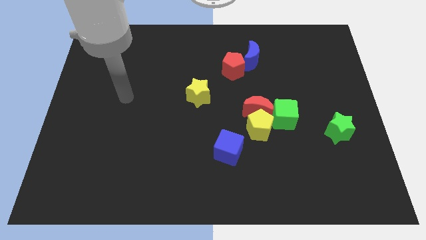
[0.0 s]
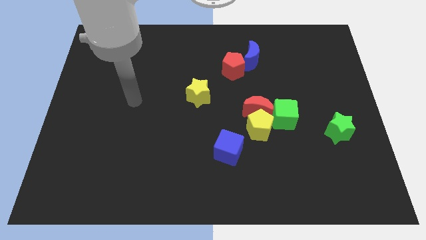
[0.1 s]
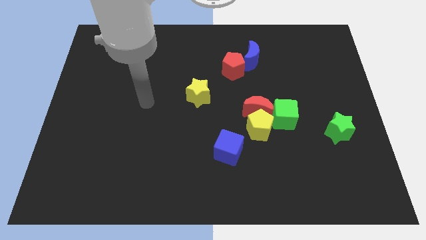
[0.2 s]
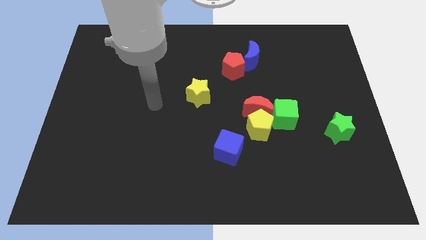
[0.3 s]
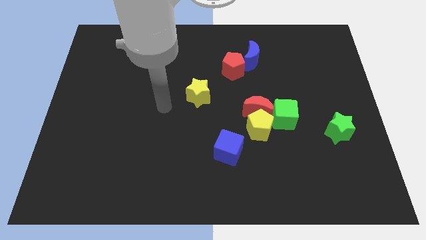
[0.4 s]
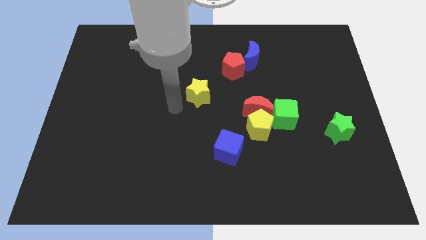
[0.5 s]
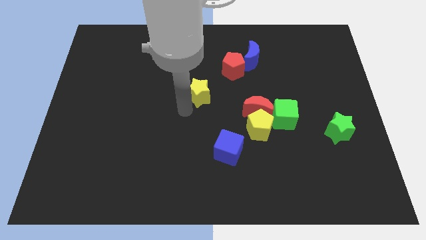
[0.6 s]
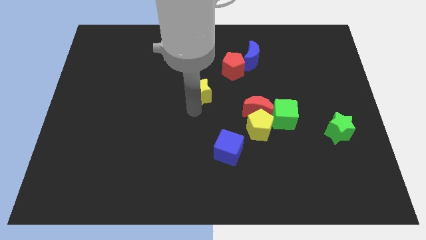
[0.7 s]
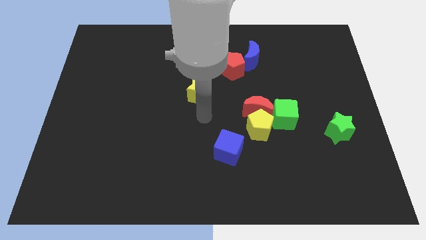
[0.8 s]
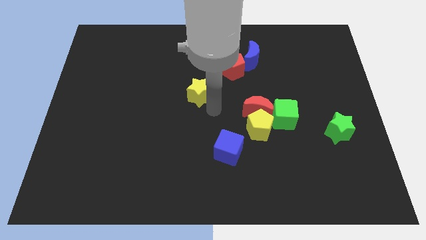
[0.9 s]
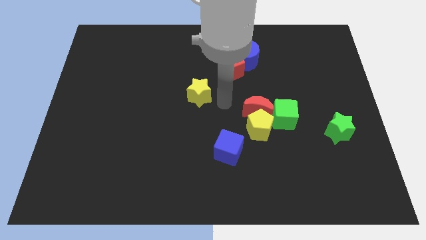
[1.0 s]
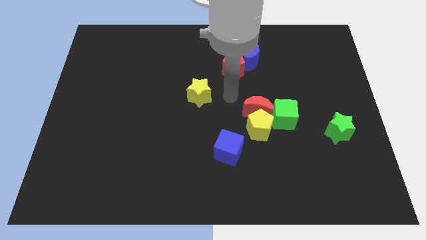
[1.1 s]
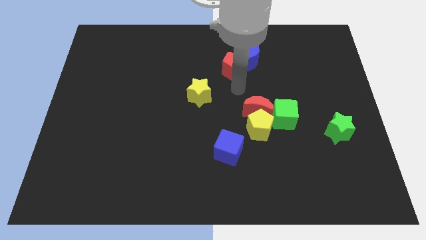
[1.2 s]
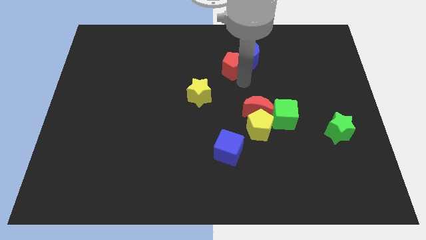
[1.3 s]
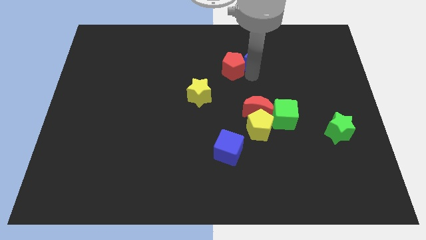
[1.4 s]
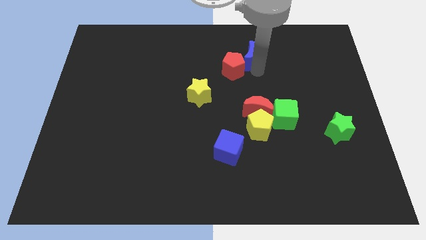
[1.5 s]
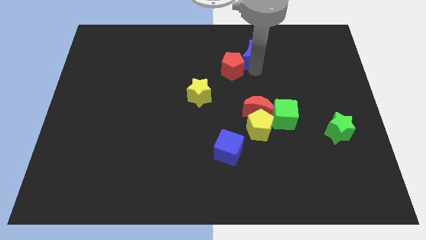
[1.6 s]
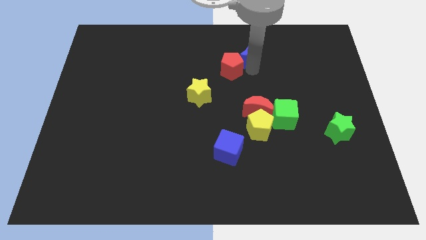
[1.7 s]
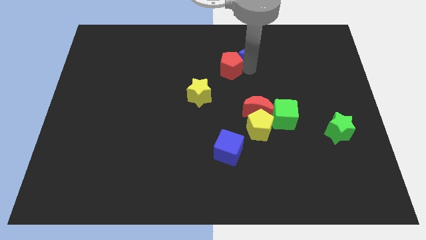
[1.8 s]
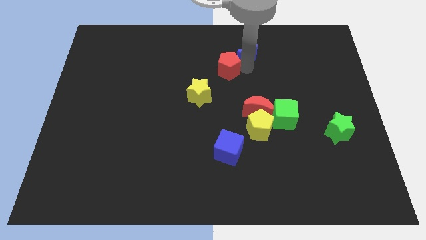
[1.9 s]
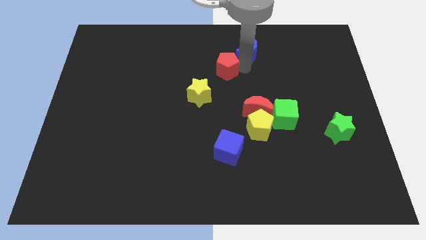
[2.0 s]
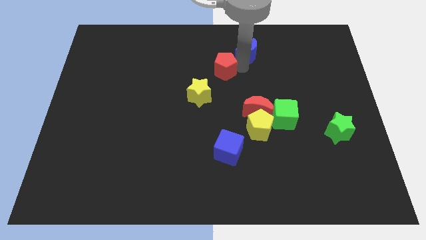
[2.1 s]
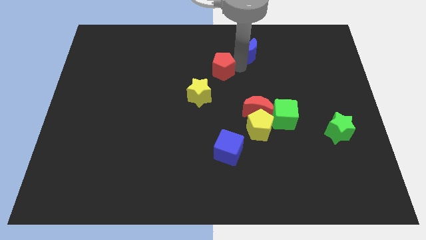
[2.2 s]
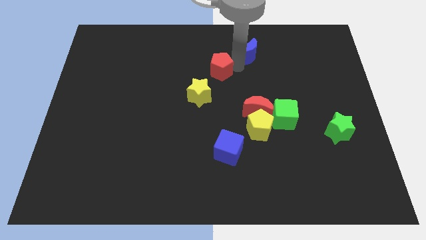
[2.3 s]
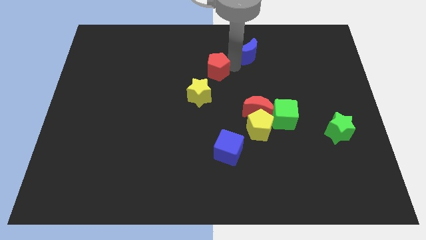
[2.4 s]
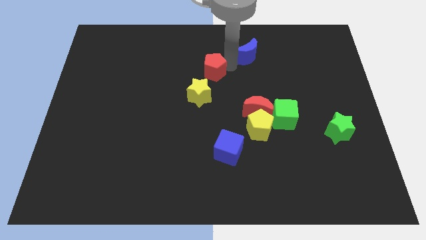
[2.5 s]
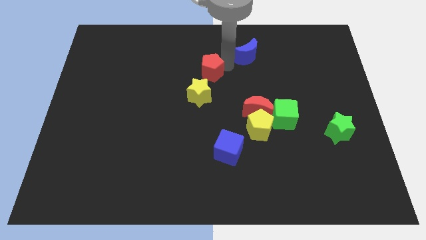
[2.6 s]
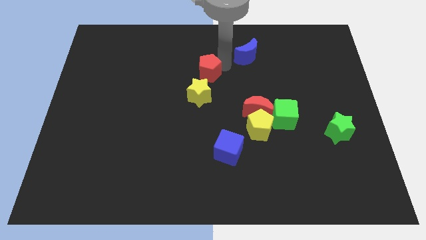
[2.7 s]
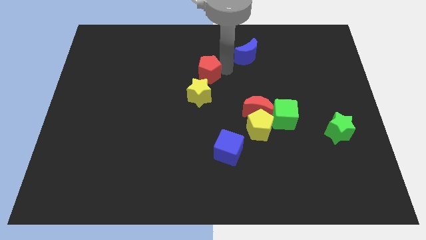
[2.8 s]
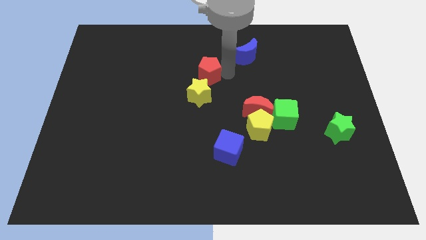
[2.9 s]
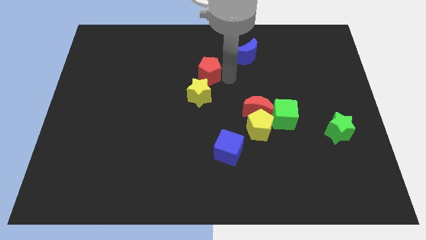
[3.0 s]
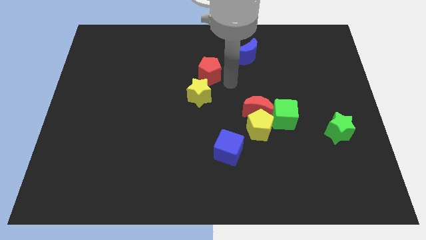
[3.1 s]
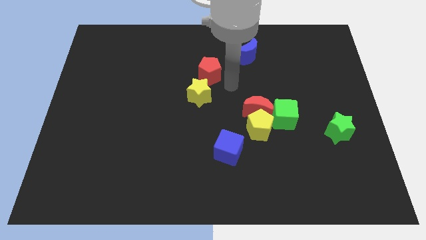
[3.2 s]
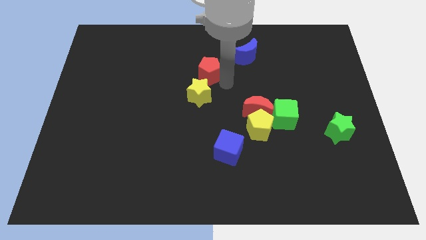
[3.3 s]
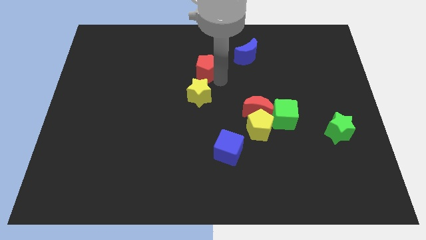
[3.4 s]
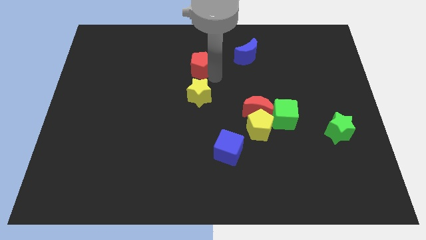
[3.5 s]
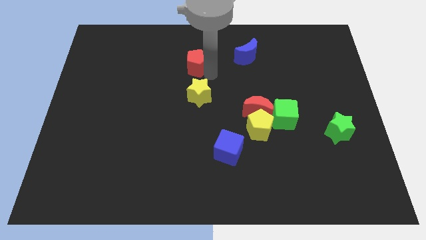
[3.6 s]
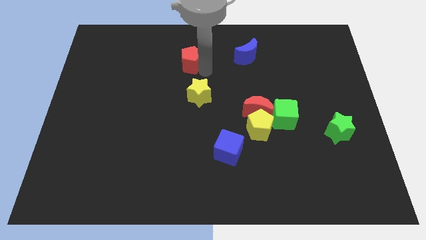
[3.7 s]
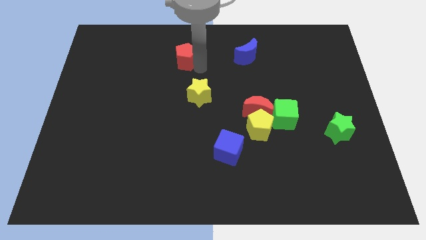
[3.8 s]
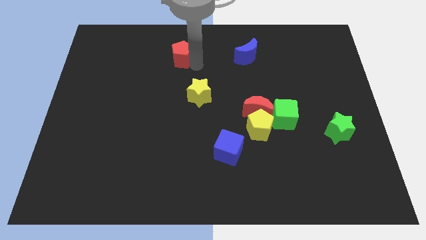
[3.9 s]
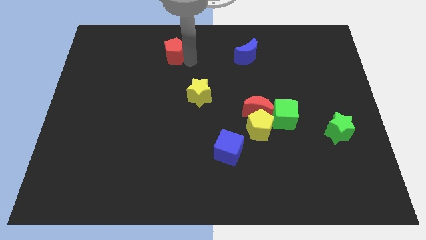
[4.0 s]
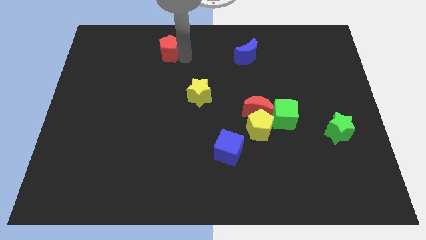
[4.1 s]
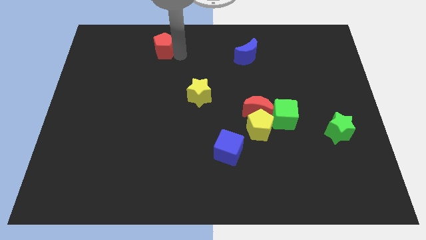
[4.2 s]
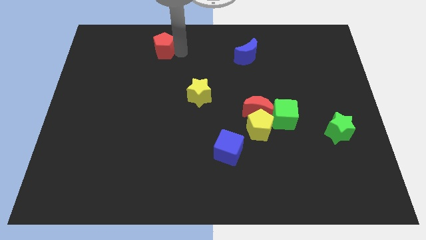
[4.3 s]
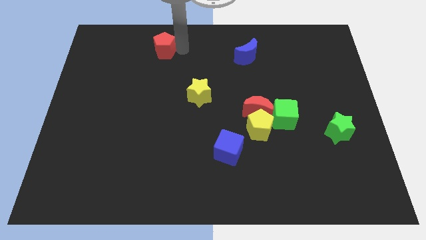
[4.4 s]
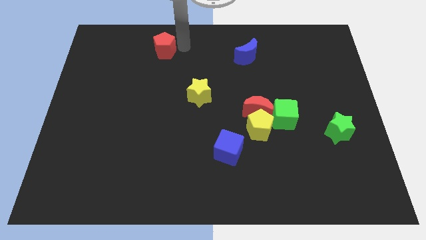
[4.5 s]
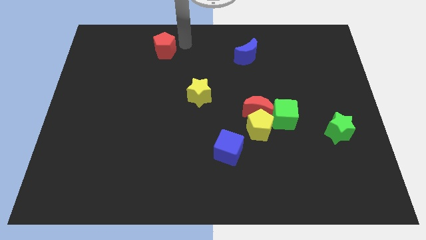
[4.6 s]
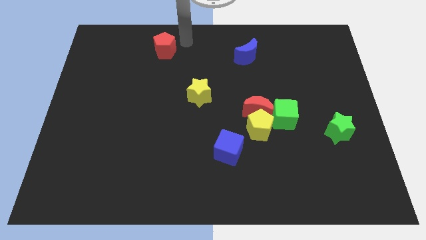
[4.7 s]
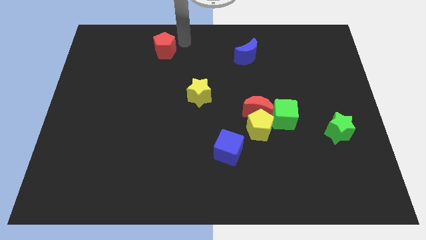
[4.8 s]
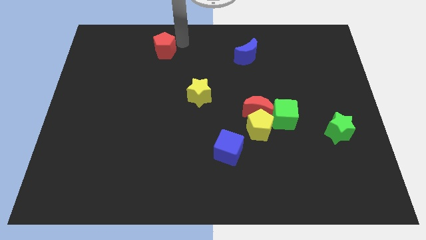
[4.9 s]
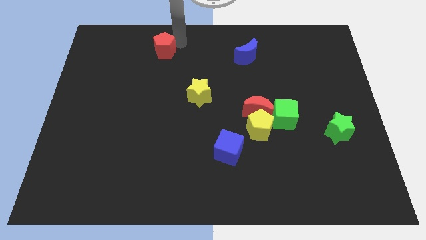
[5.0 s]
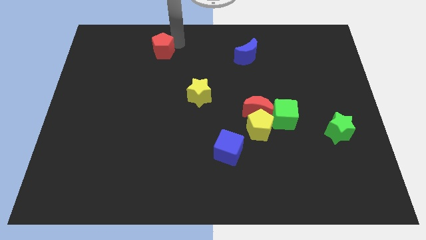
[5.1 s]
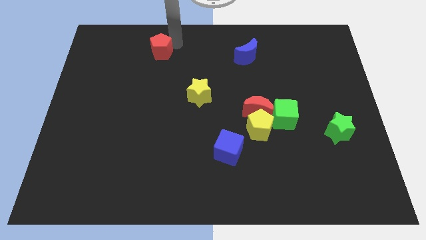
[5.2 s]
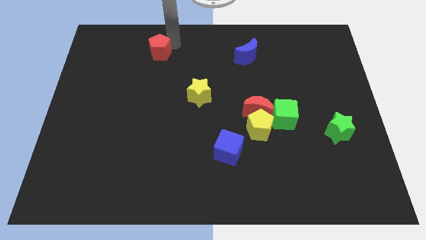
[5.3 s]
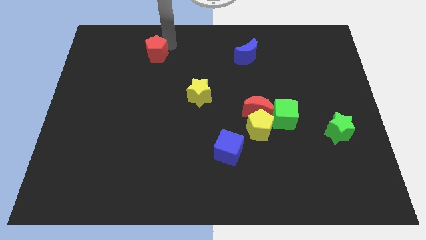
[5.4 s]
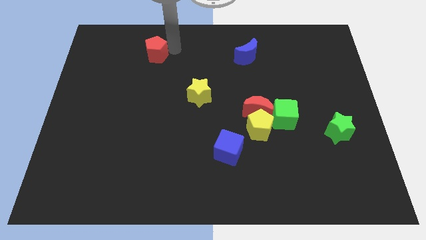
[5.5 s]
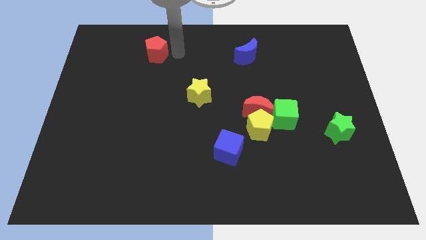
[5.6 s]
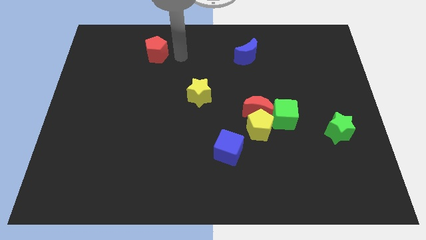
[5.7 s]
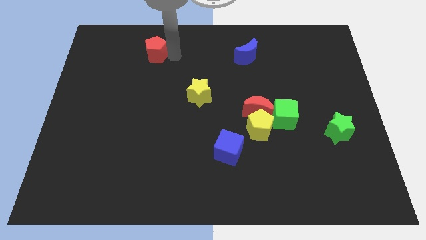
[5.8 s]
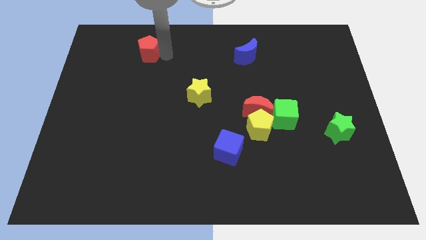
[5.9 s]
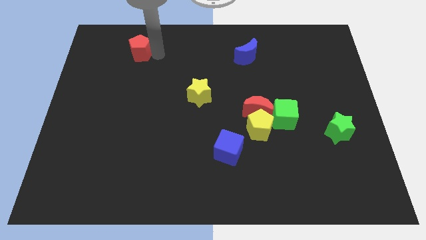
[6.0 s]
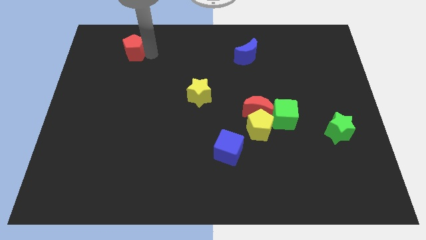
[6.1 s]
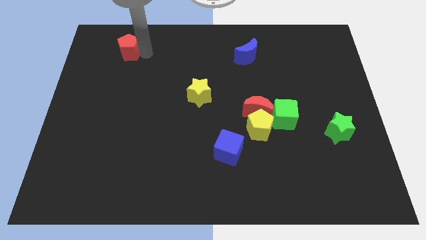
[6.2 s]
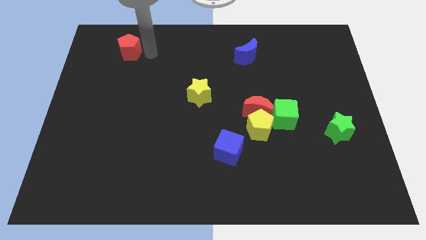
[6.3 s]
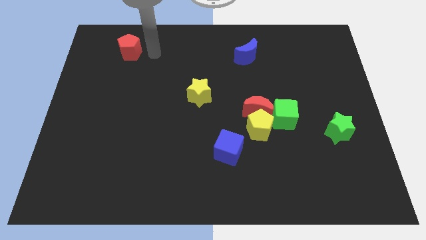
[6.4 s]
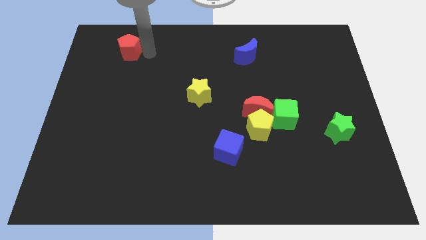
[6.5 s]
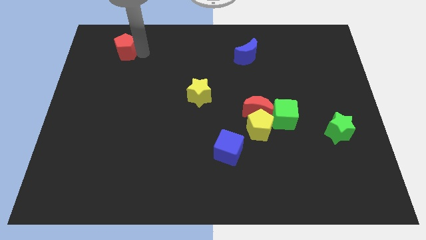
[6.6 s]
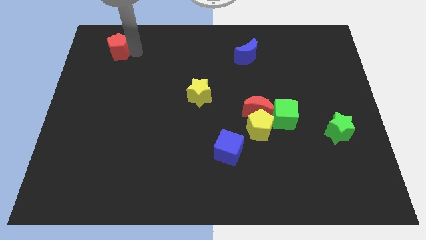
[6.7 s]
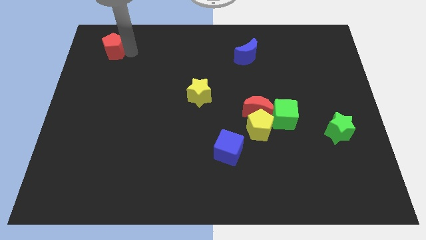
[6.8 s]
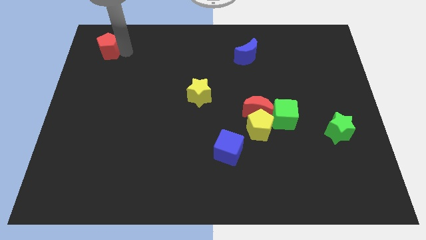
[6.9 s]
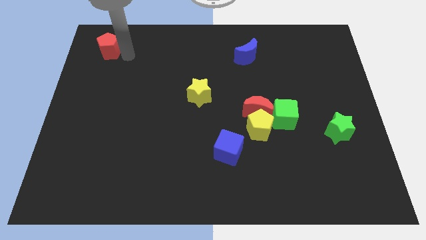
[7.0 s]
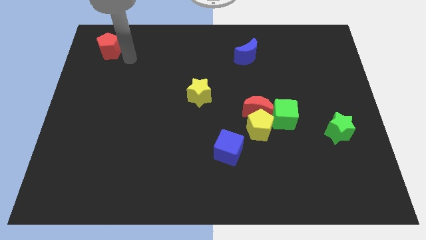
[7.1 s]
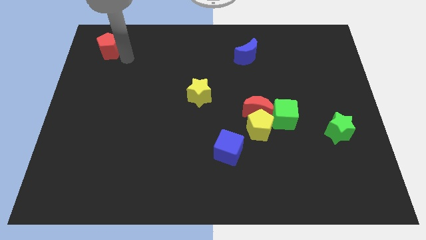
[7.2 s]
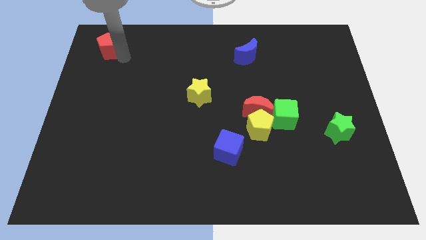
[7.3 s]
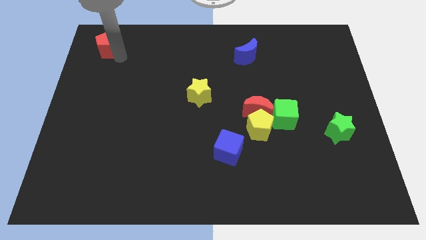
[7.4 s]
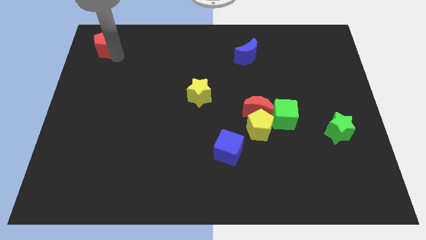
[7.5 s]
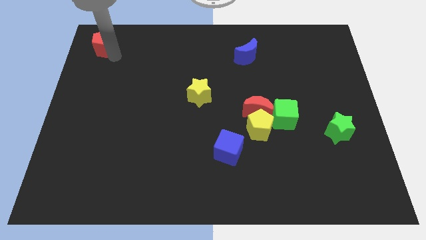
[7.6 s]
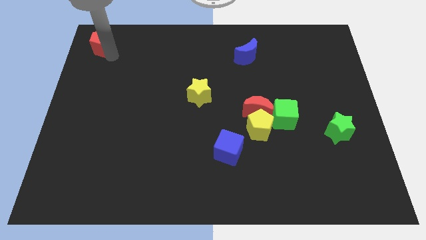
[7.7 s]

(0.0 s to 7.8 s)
push the red pentagon to the top left corner
